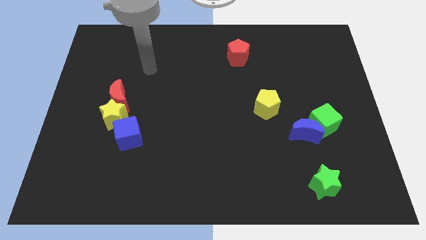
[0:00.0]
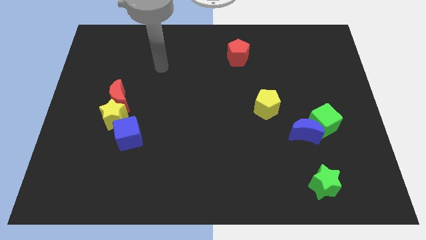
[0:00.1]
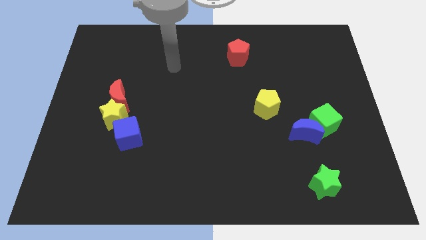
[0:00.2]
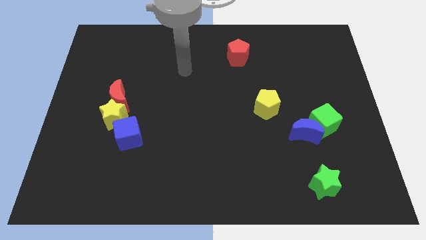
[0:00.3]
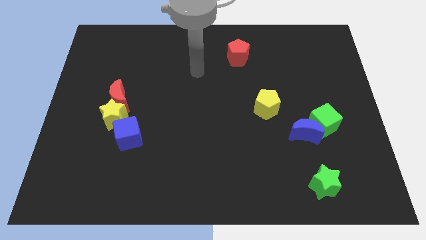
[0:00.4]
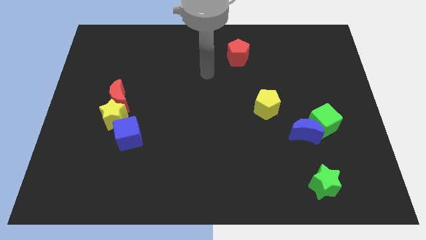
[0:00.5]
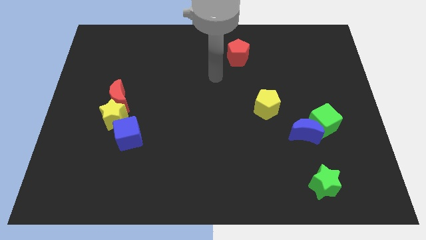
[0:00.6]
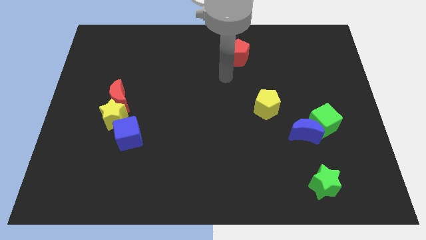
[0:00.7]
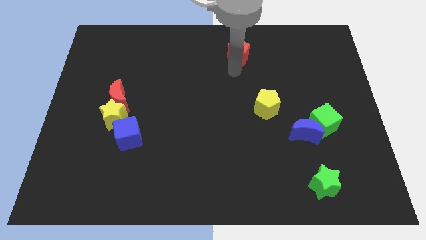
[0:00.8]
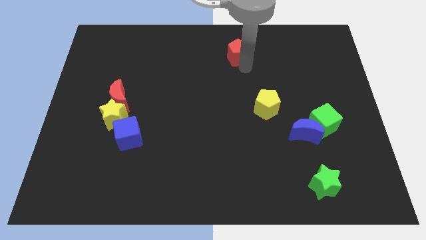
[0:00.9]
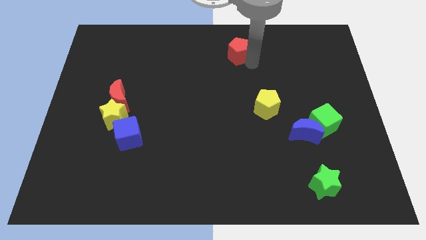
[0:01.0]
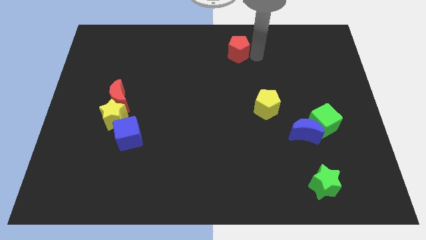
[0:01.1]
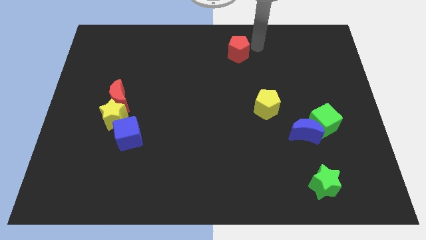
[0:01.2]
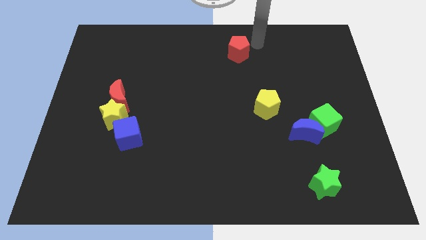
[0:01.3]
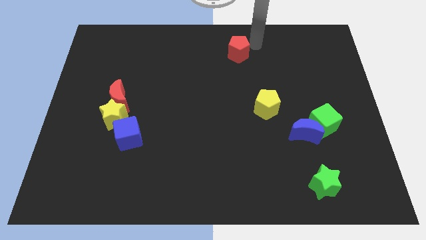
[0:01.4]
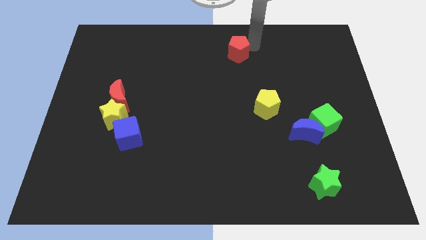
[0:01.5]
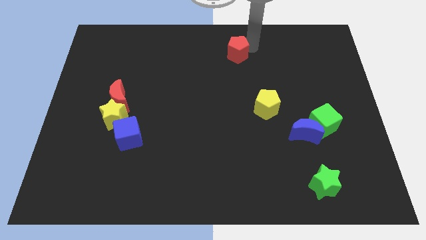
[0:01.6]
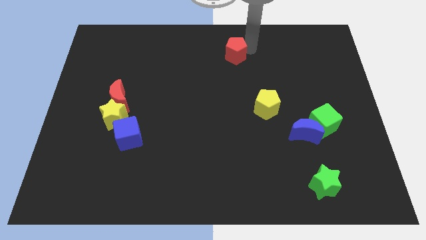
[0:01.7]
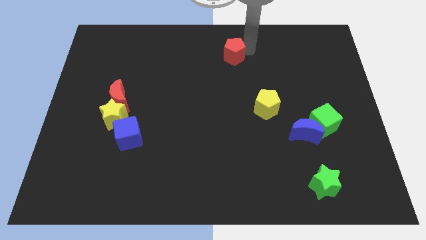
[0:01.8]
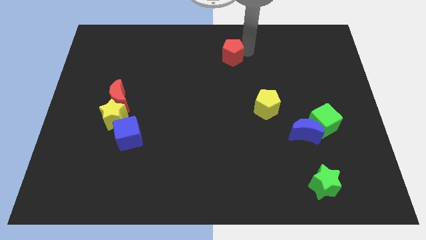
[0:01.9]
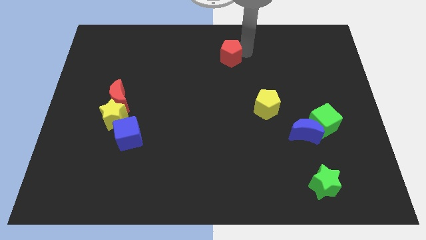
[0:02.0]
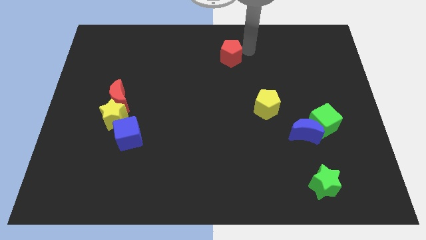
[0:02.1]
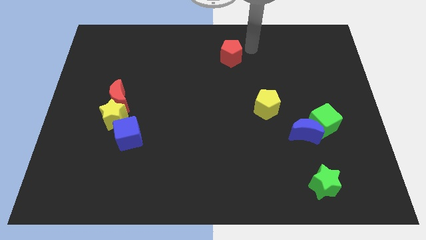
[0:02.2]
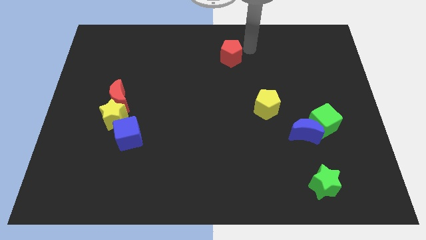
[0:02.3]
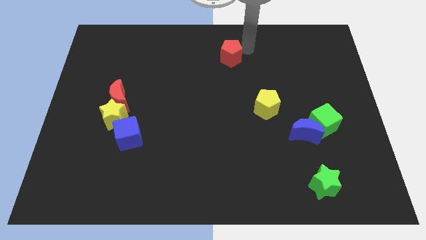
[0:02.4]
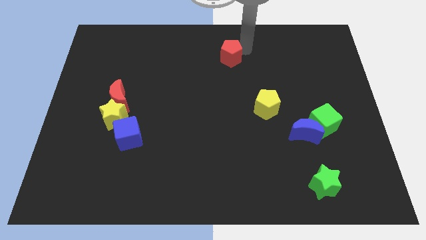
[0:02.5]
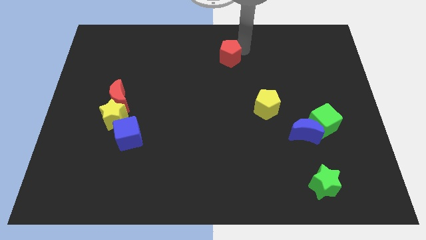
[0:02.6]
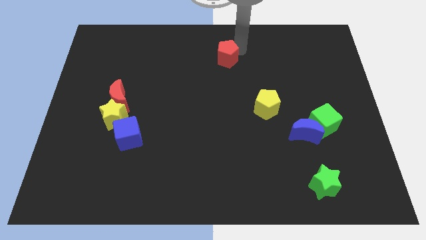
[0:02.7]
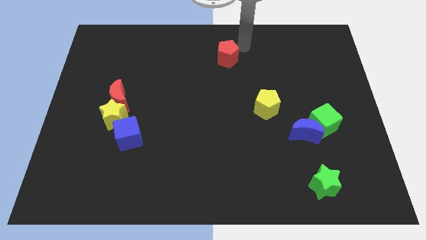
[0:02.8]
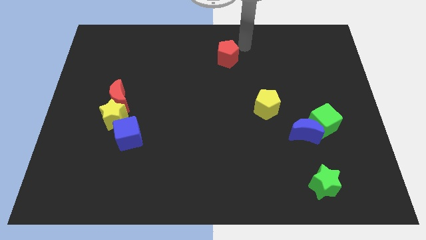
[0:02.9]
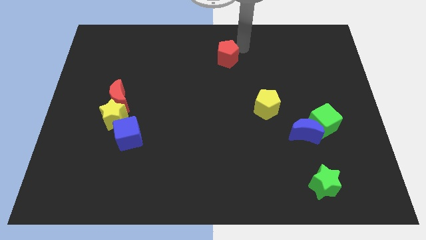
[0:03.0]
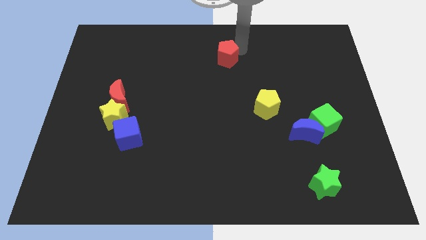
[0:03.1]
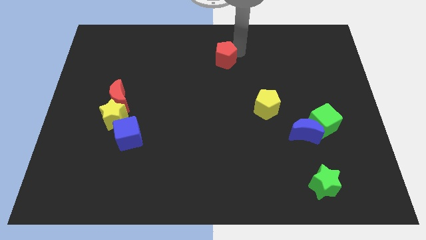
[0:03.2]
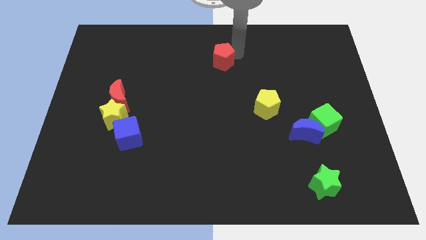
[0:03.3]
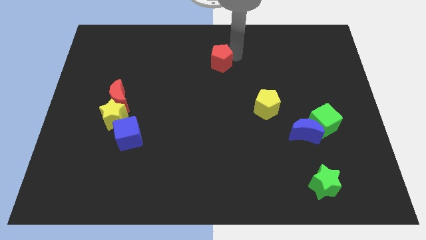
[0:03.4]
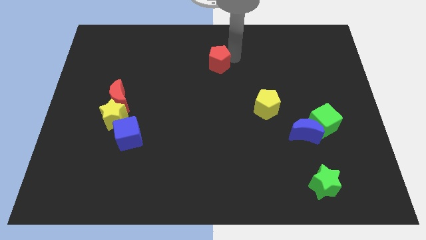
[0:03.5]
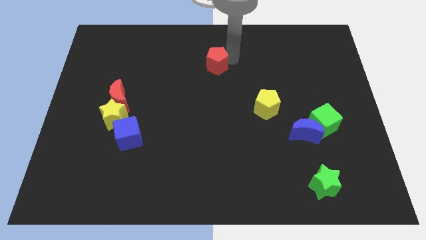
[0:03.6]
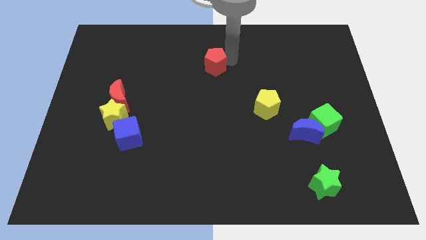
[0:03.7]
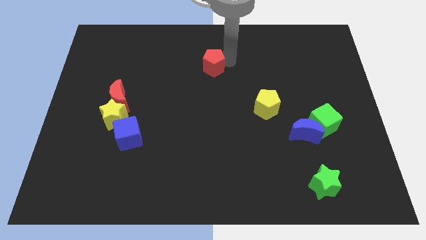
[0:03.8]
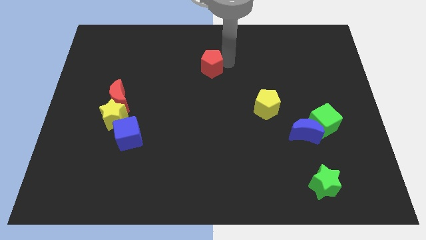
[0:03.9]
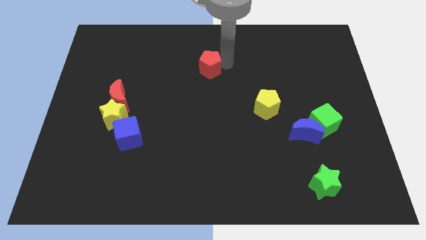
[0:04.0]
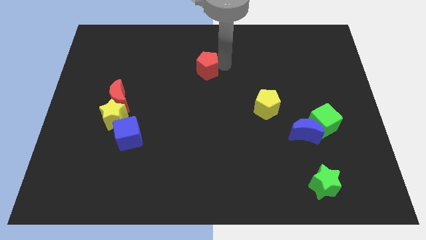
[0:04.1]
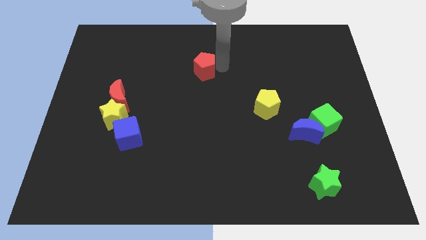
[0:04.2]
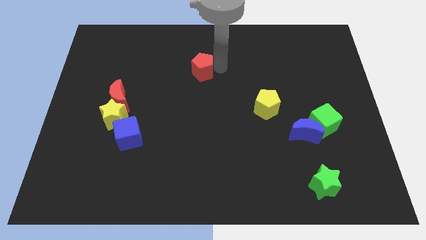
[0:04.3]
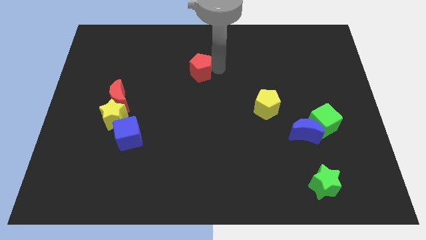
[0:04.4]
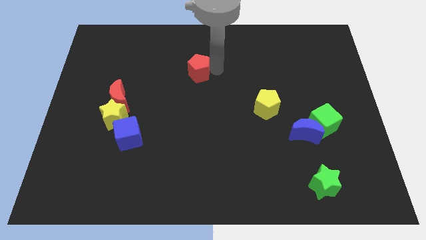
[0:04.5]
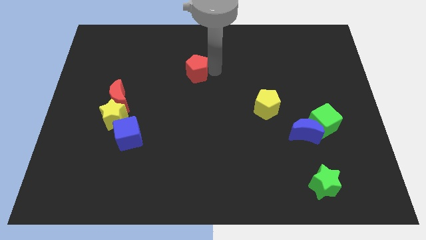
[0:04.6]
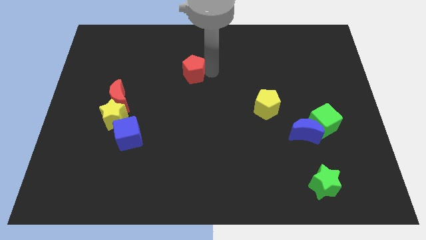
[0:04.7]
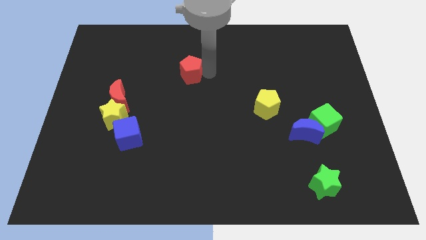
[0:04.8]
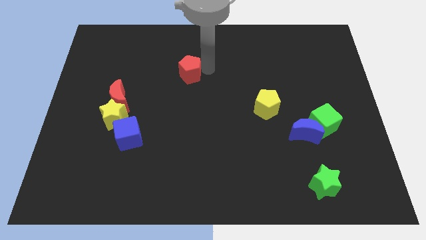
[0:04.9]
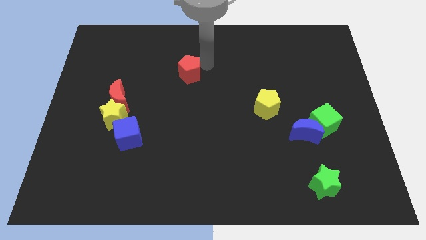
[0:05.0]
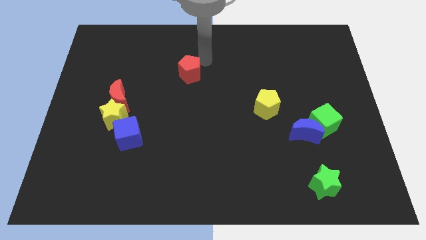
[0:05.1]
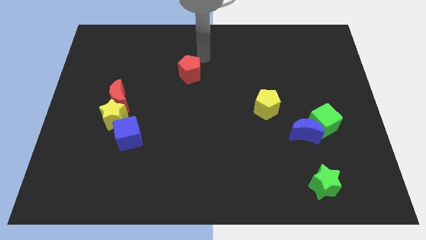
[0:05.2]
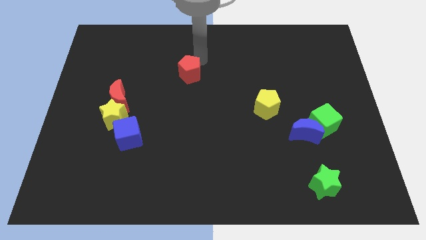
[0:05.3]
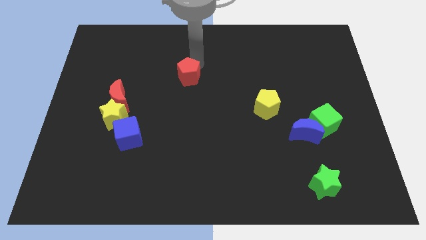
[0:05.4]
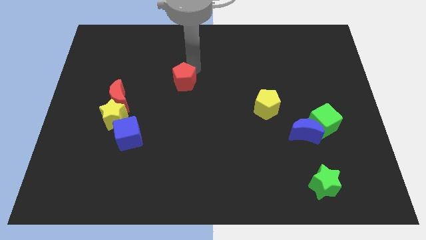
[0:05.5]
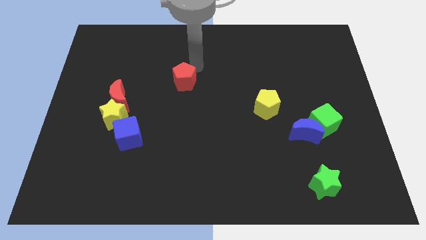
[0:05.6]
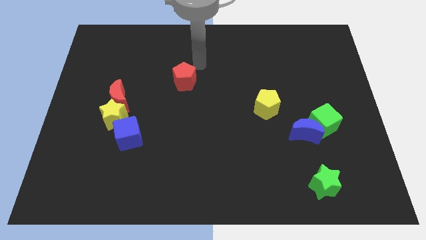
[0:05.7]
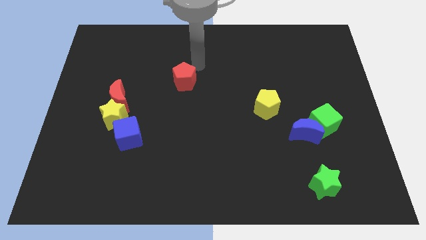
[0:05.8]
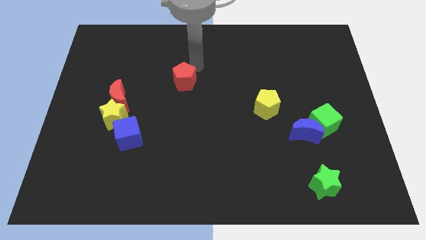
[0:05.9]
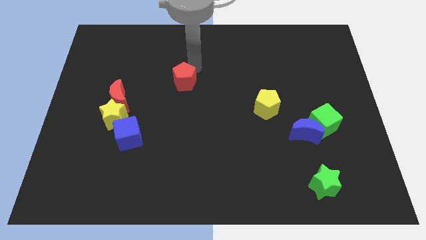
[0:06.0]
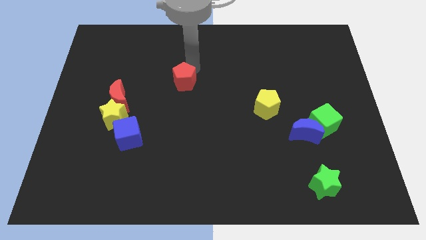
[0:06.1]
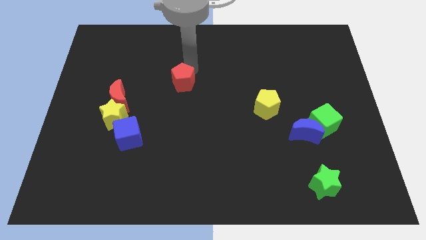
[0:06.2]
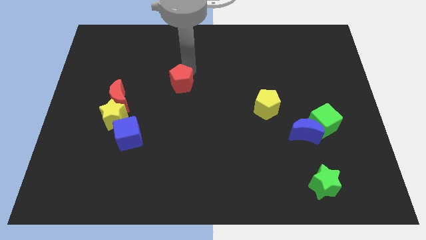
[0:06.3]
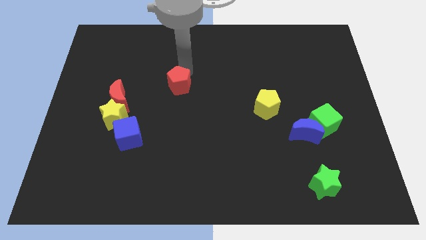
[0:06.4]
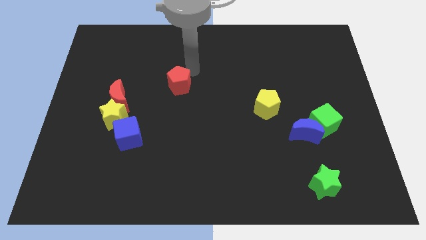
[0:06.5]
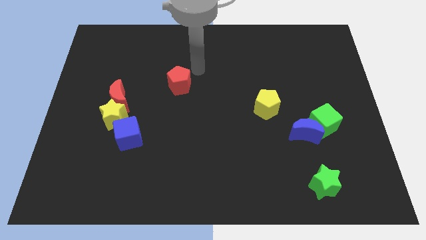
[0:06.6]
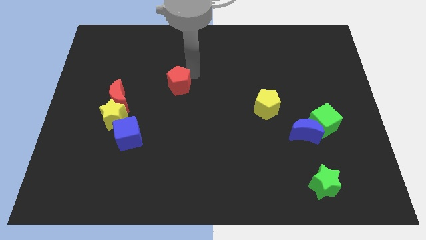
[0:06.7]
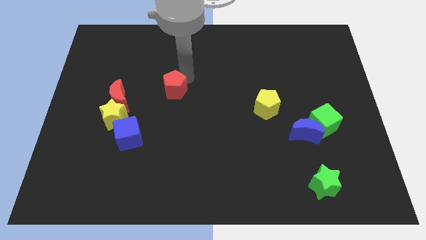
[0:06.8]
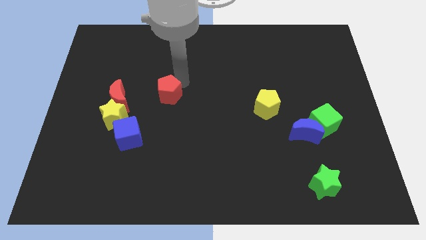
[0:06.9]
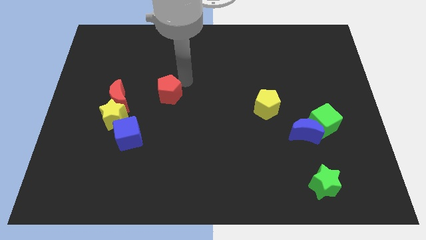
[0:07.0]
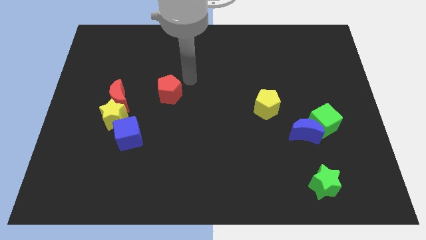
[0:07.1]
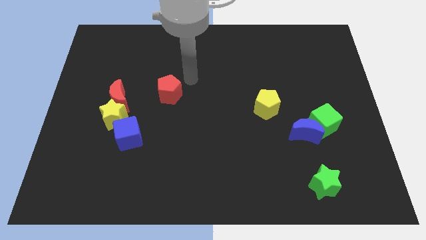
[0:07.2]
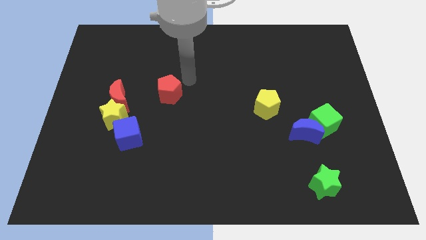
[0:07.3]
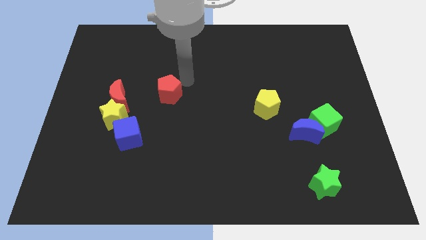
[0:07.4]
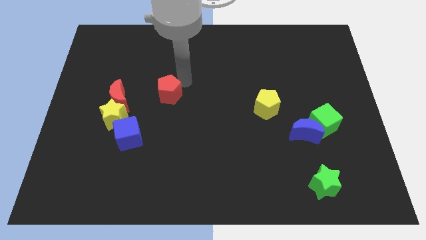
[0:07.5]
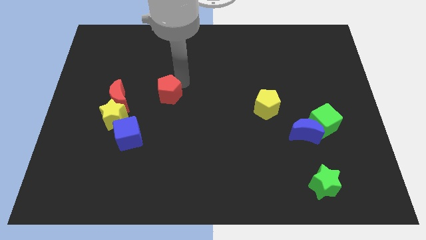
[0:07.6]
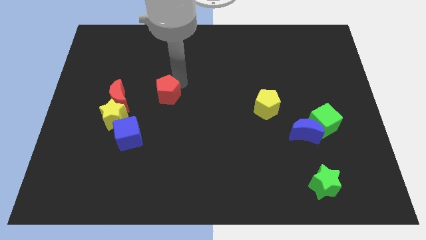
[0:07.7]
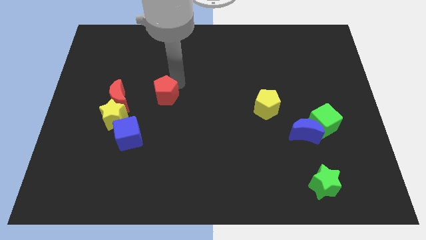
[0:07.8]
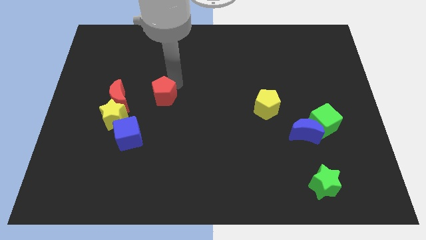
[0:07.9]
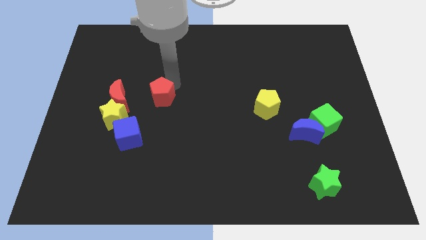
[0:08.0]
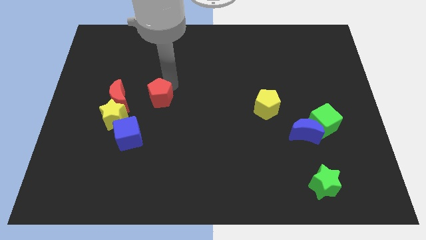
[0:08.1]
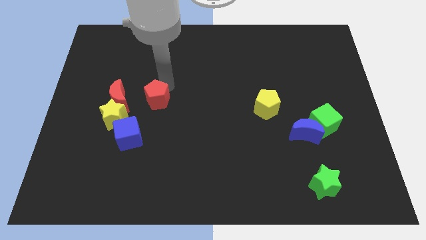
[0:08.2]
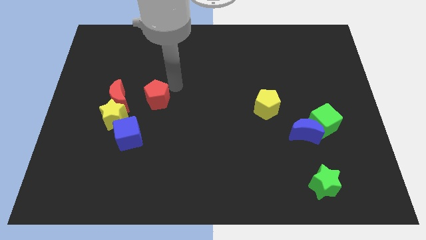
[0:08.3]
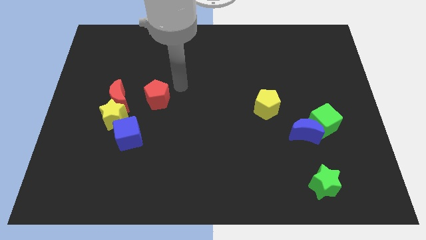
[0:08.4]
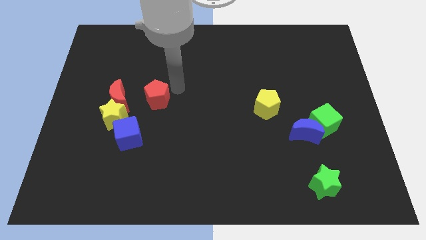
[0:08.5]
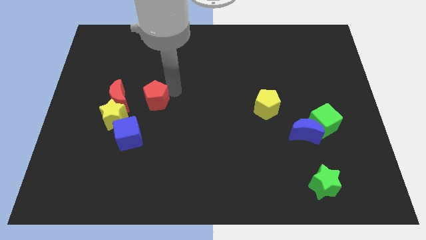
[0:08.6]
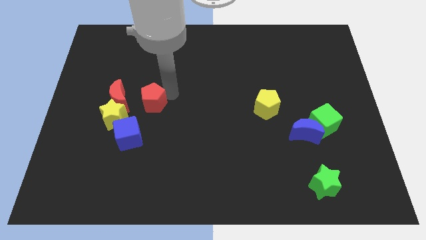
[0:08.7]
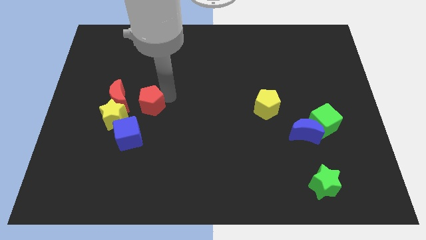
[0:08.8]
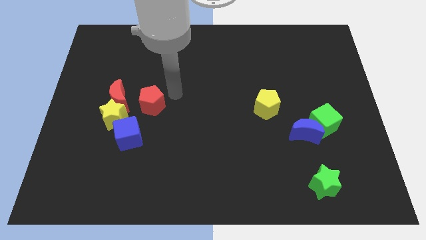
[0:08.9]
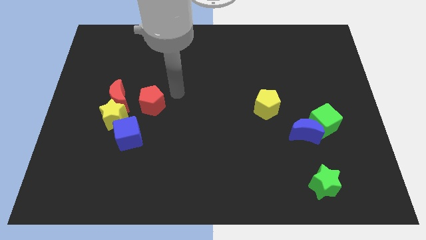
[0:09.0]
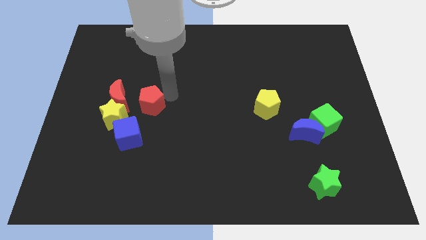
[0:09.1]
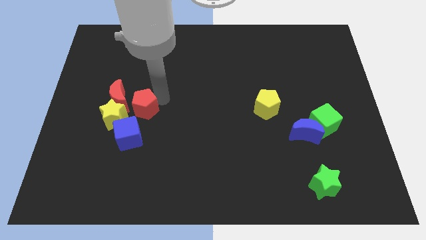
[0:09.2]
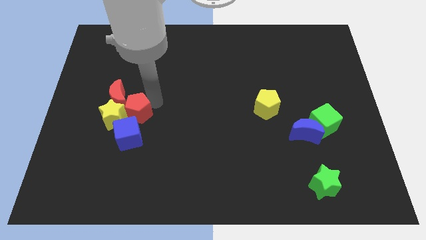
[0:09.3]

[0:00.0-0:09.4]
slide the red pentagon towards the yellow star
